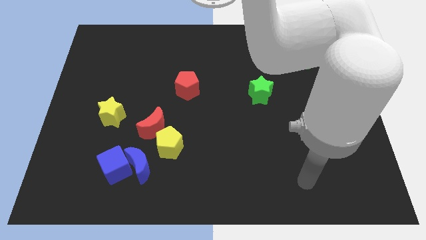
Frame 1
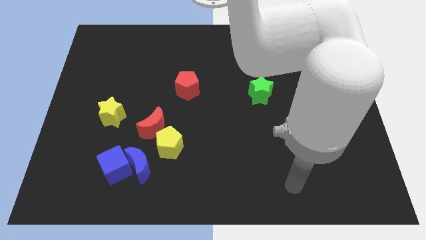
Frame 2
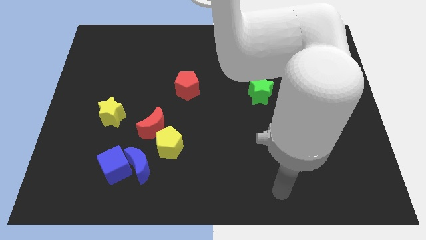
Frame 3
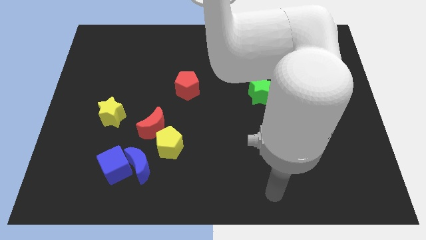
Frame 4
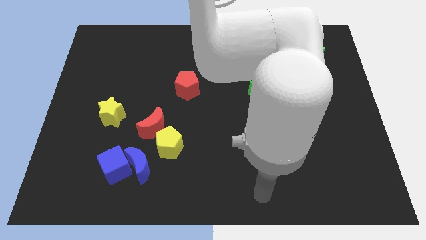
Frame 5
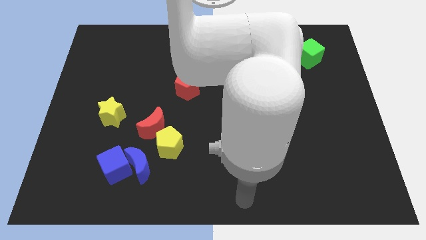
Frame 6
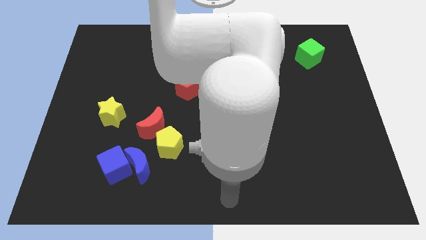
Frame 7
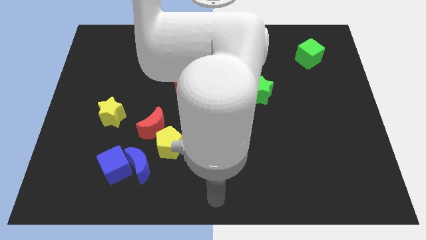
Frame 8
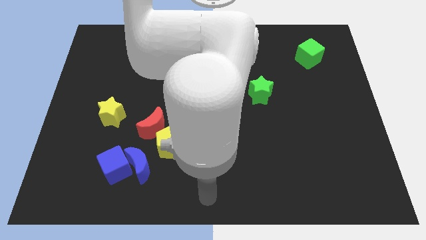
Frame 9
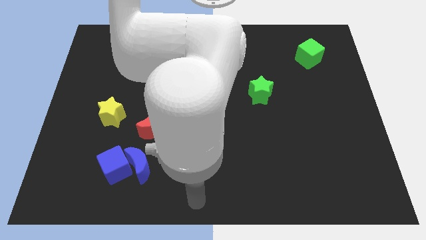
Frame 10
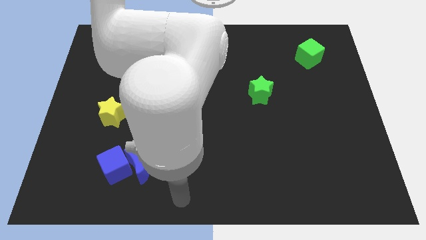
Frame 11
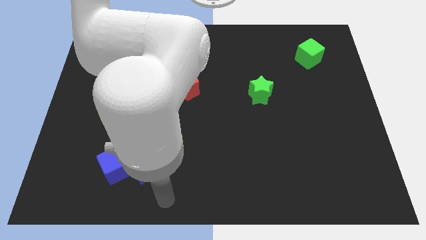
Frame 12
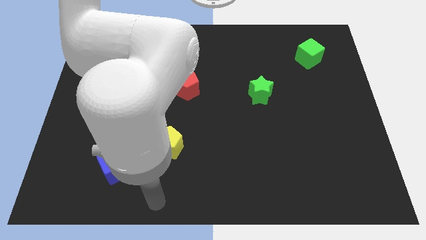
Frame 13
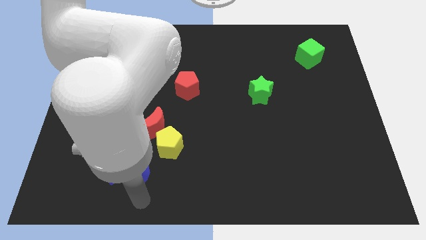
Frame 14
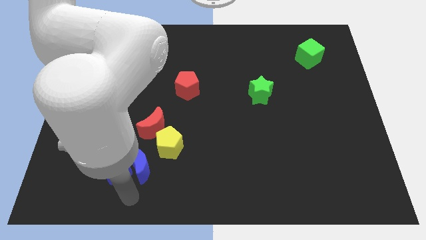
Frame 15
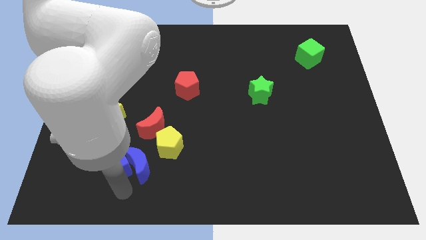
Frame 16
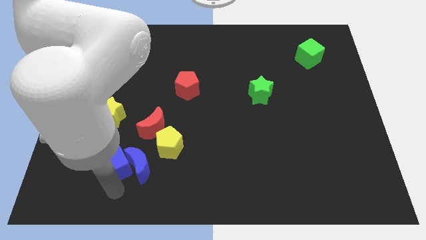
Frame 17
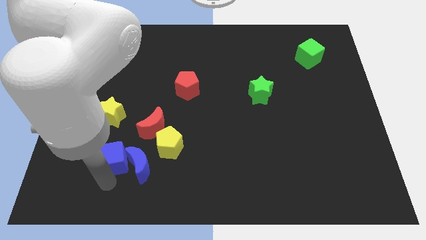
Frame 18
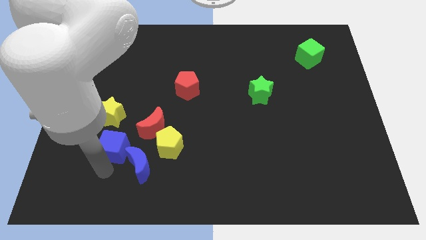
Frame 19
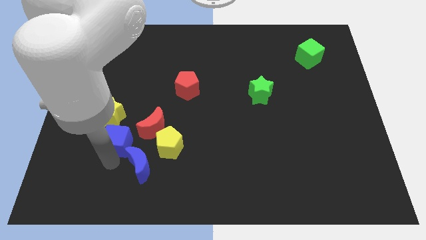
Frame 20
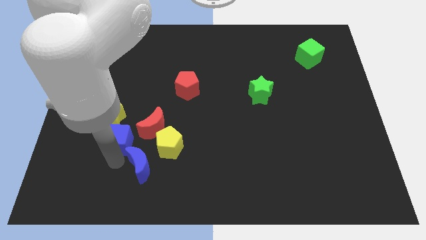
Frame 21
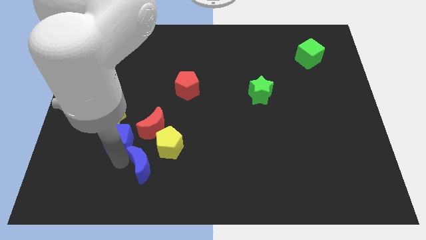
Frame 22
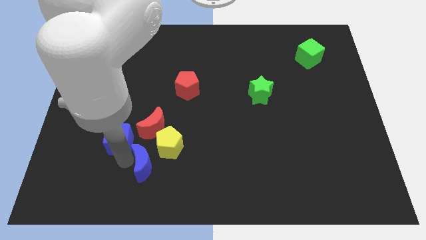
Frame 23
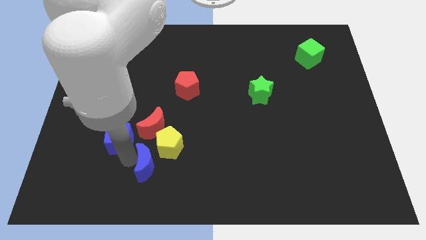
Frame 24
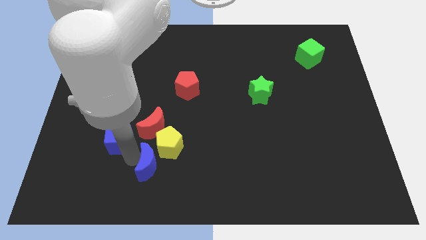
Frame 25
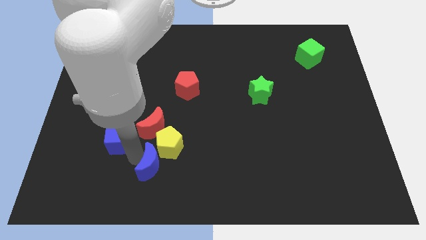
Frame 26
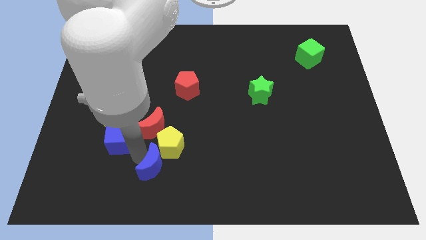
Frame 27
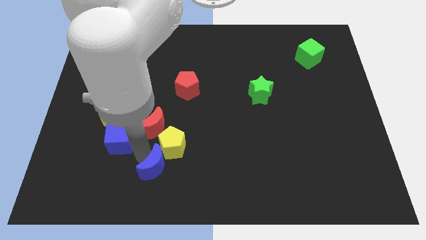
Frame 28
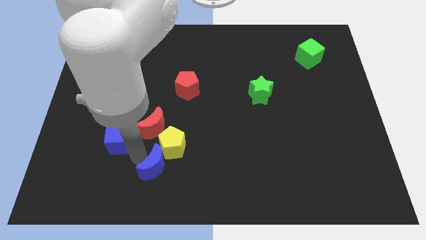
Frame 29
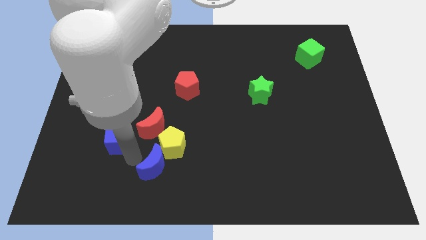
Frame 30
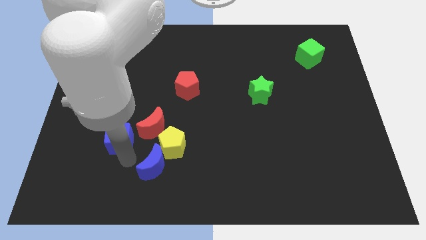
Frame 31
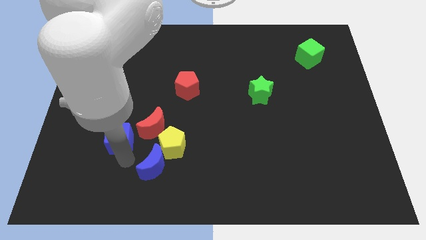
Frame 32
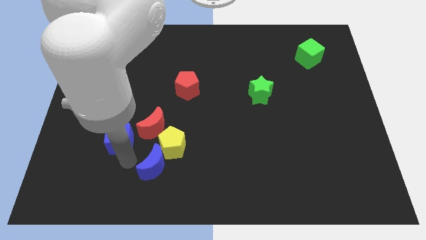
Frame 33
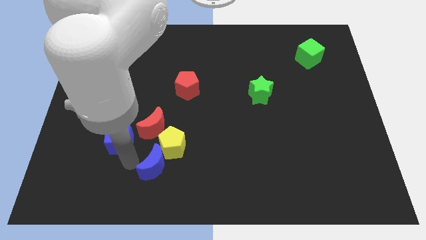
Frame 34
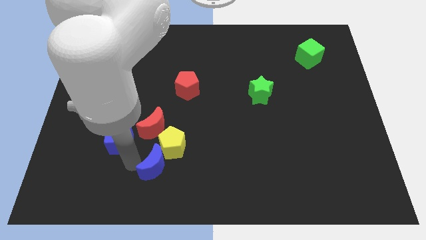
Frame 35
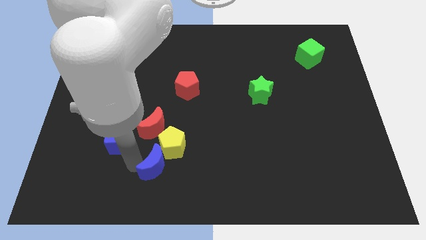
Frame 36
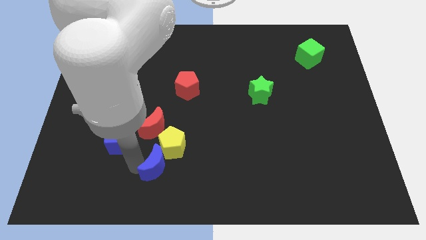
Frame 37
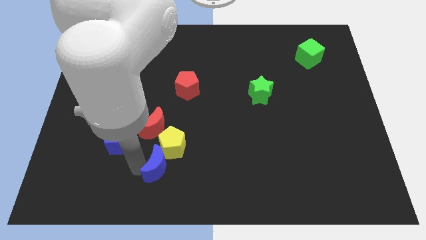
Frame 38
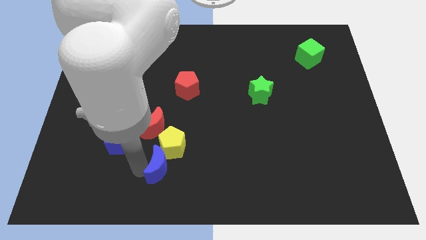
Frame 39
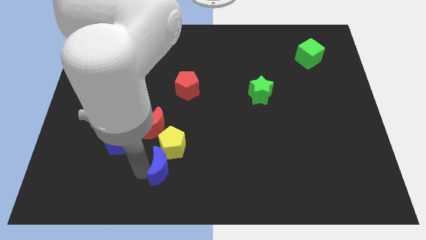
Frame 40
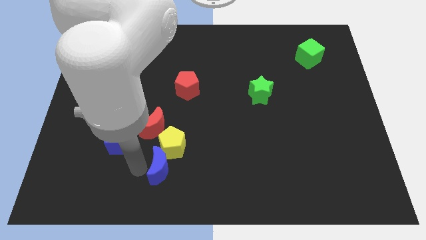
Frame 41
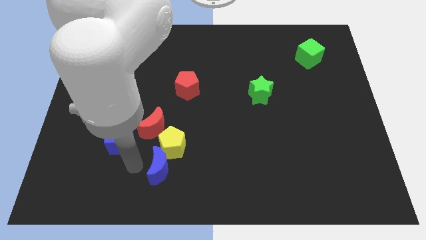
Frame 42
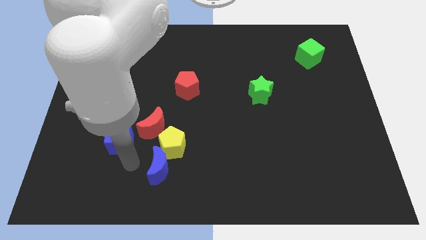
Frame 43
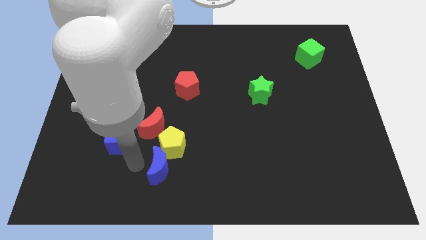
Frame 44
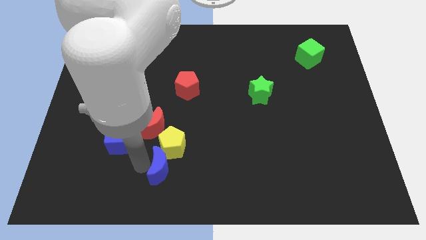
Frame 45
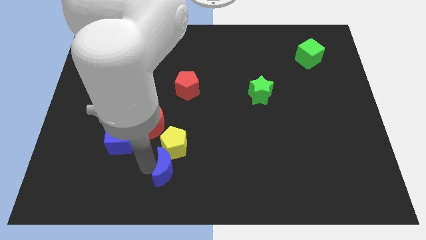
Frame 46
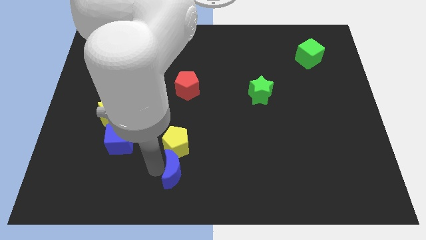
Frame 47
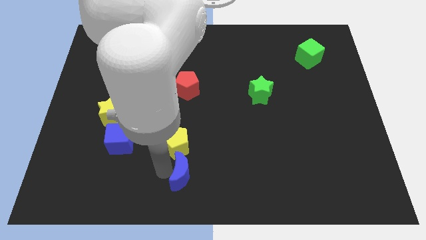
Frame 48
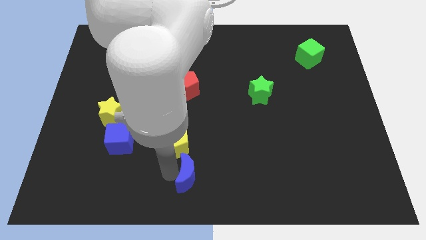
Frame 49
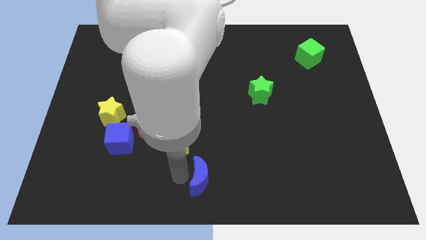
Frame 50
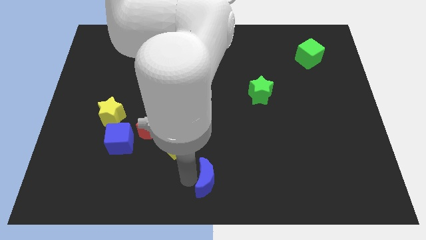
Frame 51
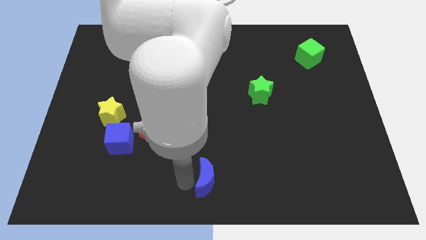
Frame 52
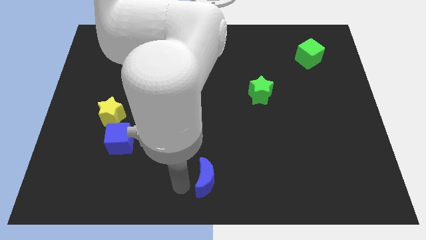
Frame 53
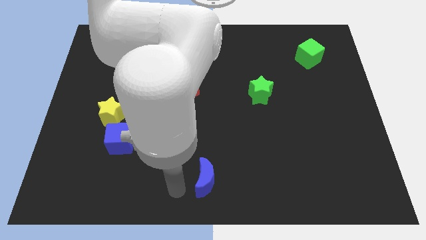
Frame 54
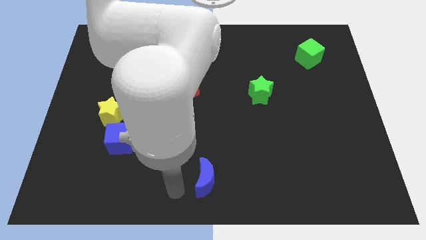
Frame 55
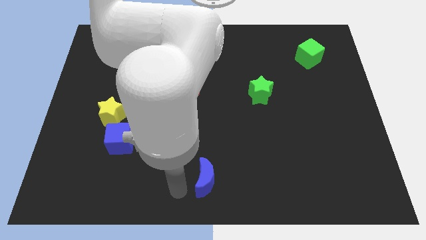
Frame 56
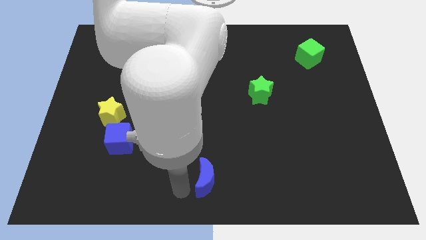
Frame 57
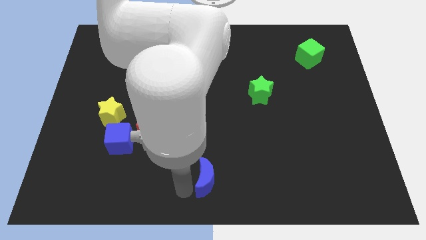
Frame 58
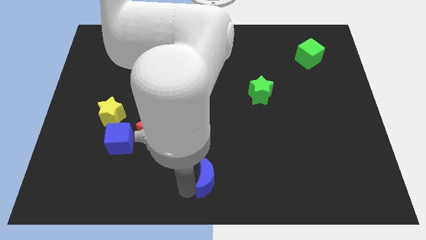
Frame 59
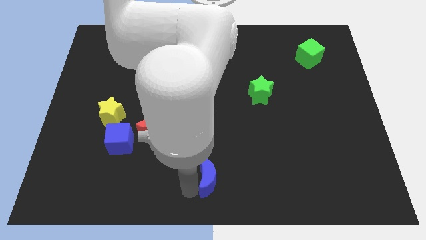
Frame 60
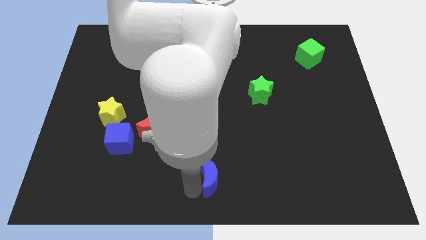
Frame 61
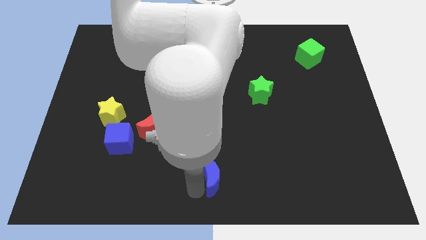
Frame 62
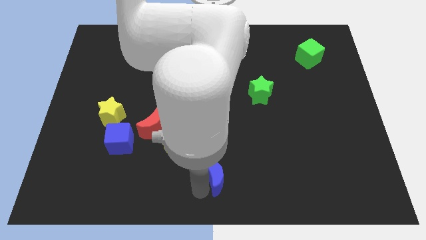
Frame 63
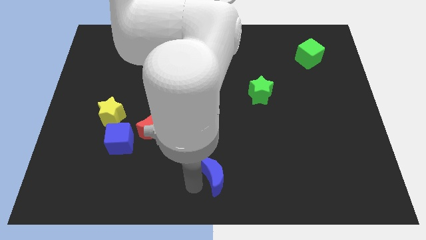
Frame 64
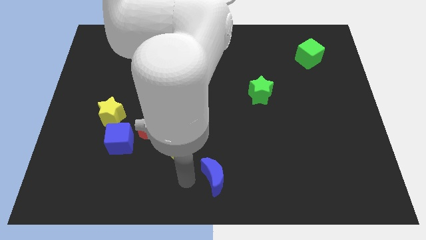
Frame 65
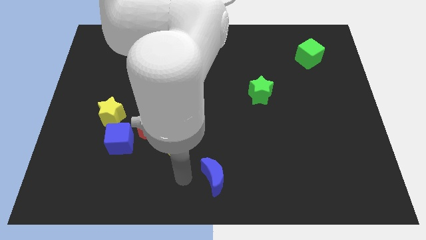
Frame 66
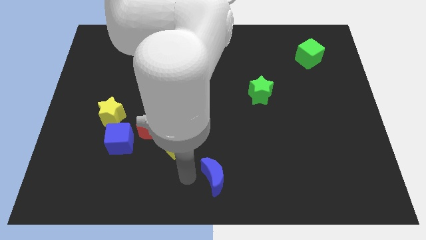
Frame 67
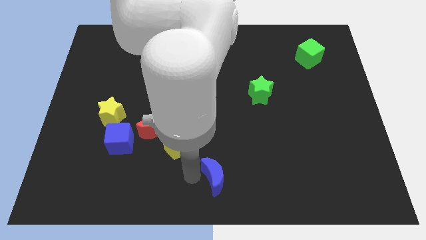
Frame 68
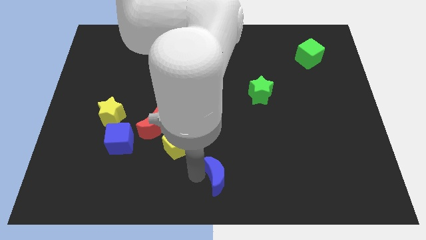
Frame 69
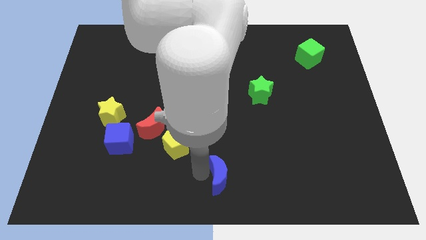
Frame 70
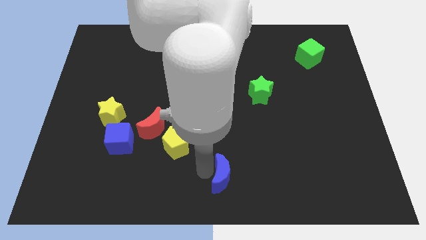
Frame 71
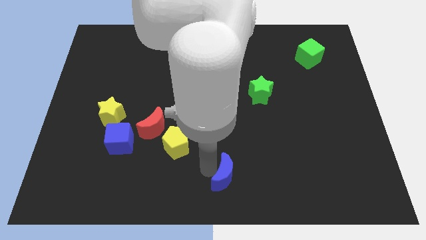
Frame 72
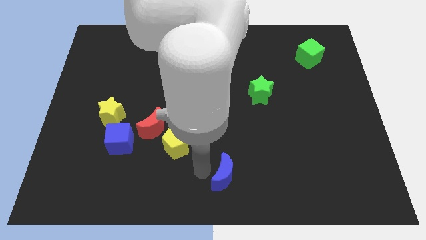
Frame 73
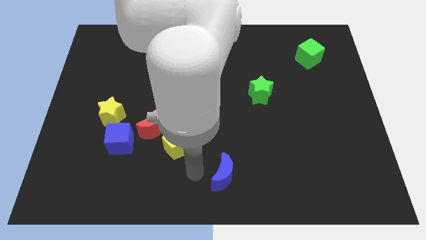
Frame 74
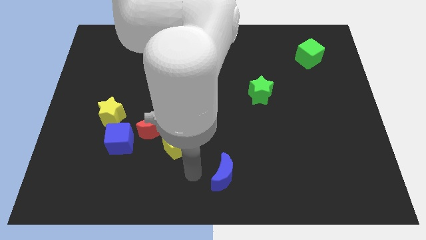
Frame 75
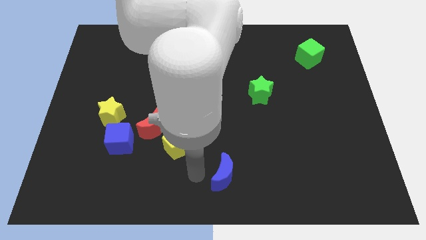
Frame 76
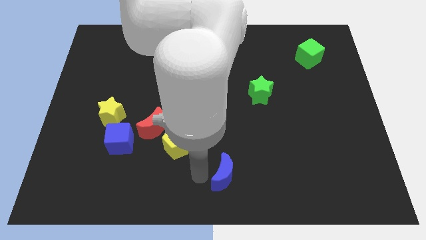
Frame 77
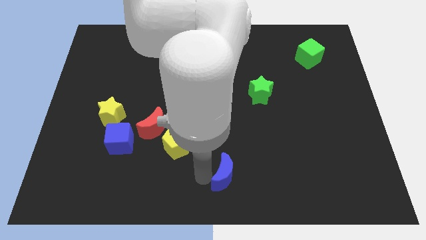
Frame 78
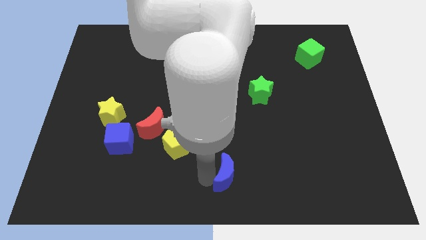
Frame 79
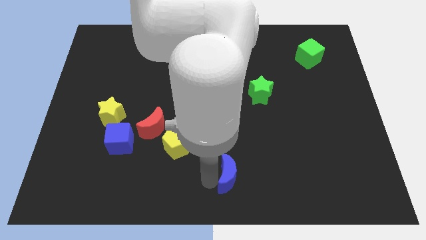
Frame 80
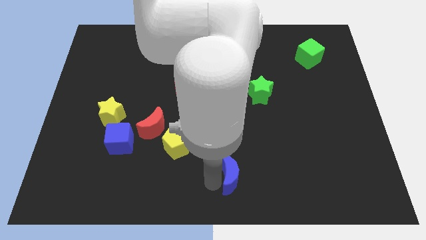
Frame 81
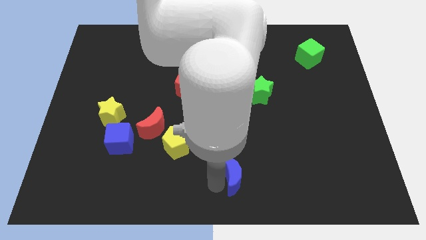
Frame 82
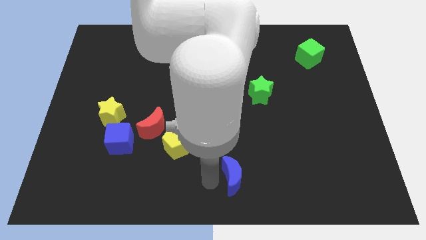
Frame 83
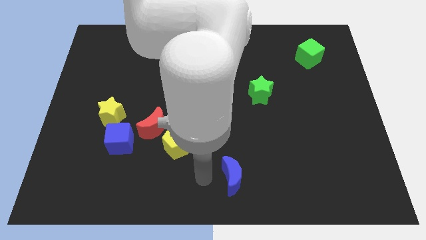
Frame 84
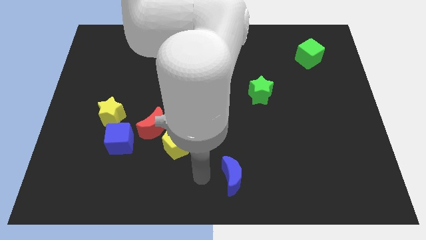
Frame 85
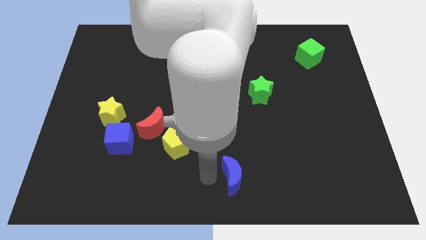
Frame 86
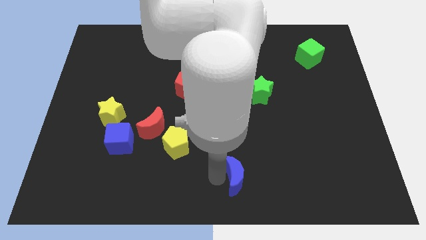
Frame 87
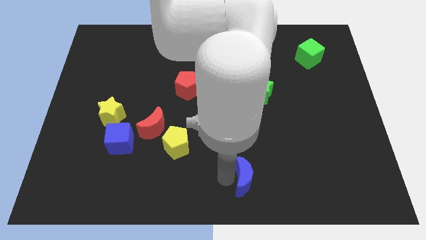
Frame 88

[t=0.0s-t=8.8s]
move the blue moon to the right
